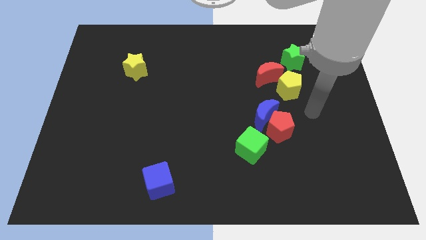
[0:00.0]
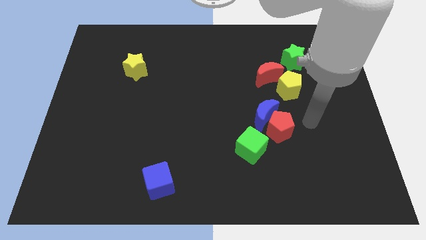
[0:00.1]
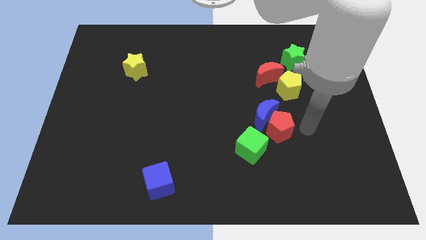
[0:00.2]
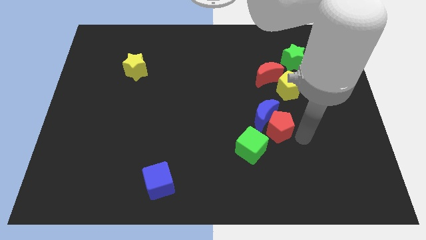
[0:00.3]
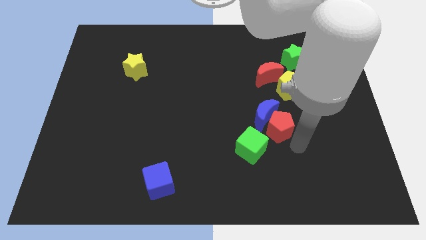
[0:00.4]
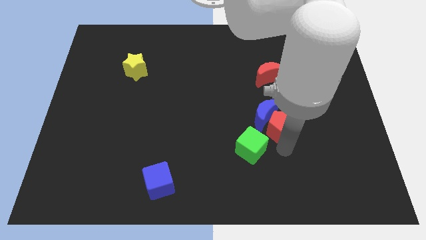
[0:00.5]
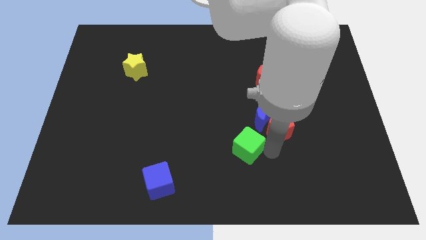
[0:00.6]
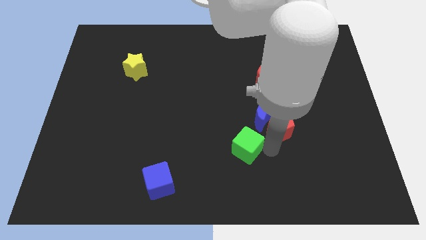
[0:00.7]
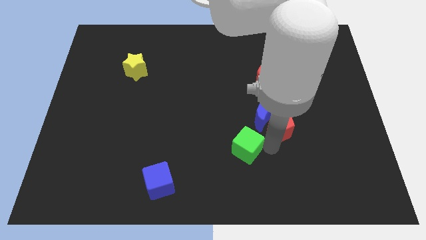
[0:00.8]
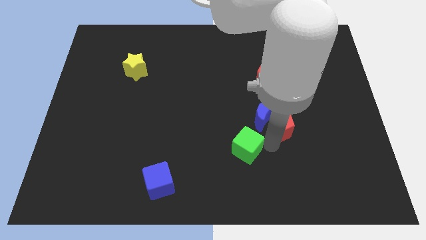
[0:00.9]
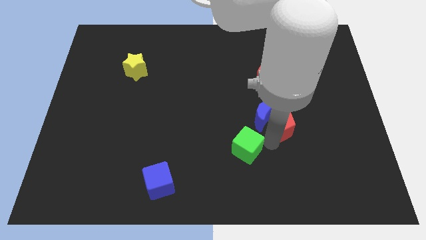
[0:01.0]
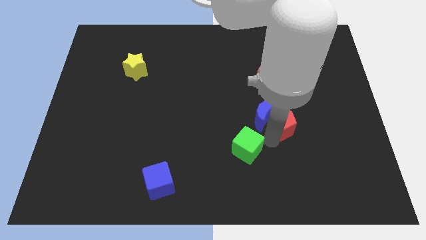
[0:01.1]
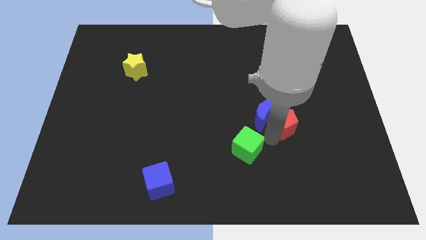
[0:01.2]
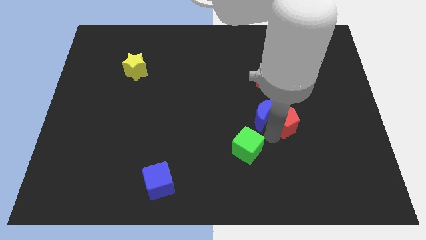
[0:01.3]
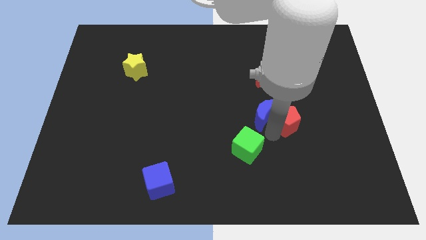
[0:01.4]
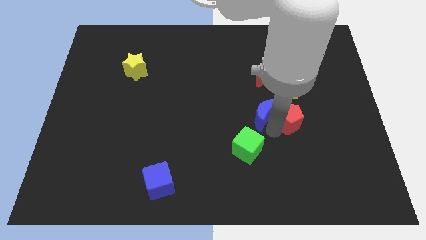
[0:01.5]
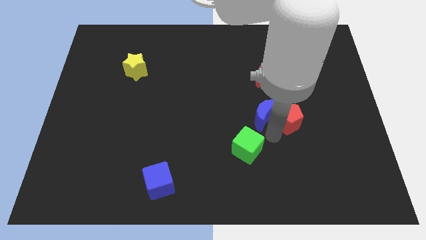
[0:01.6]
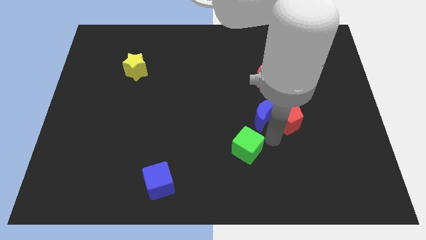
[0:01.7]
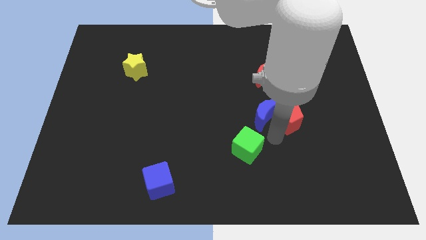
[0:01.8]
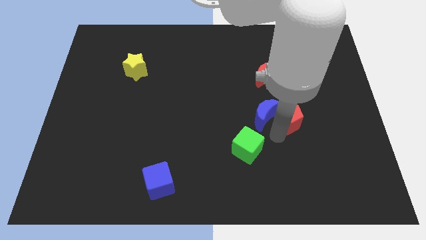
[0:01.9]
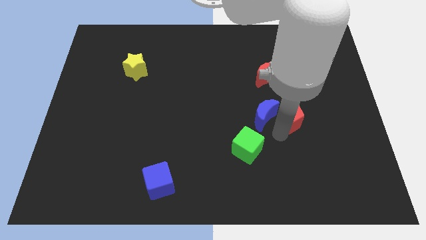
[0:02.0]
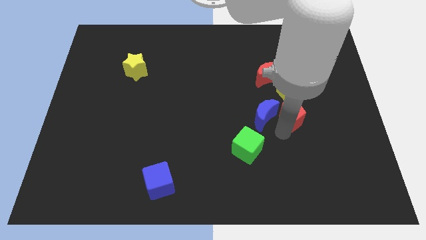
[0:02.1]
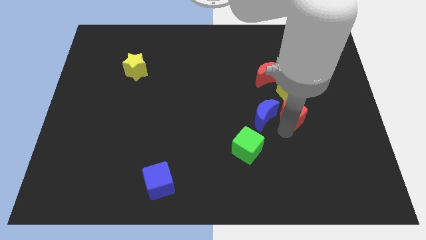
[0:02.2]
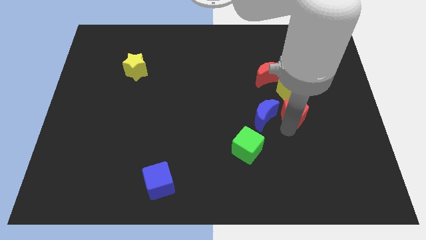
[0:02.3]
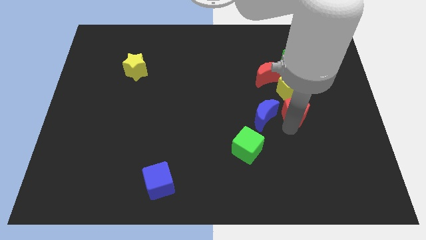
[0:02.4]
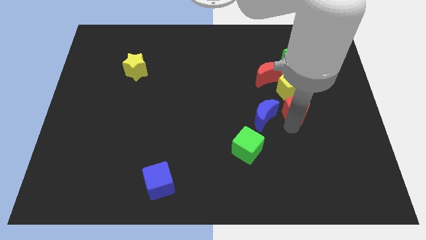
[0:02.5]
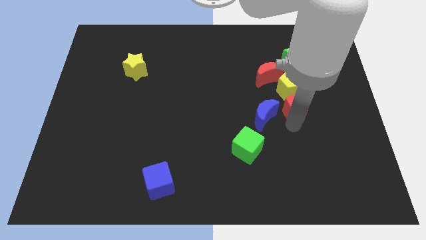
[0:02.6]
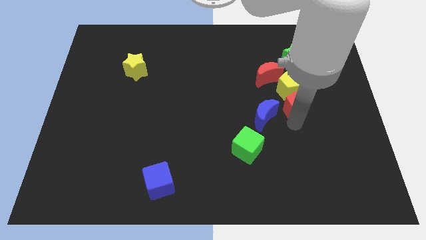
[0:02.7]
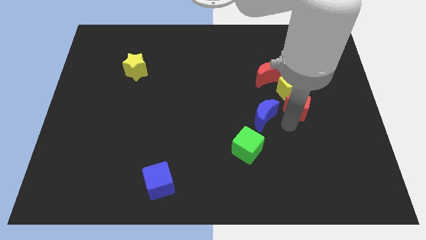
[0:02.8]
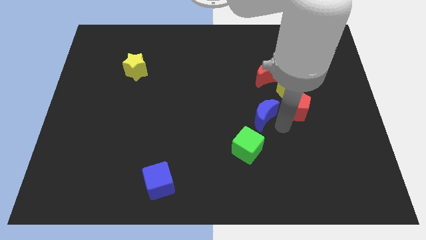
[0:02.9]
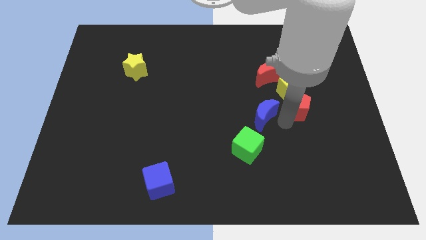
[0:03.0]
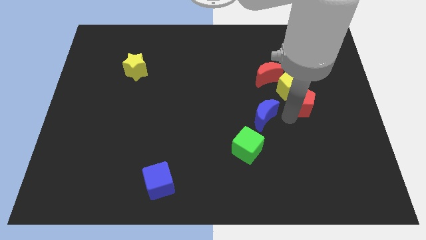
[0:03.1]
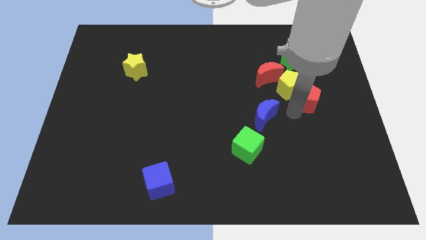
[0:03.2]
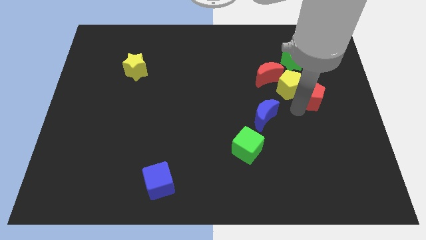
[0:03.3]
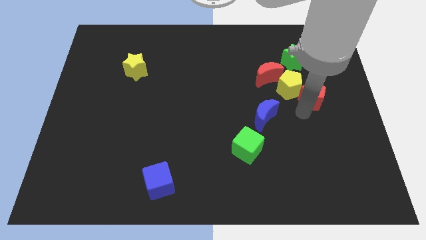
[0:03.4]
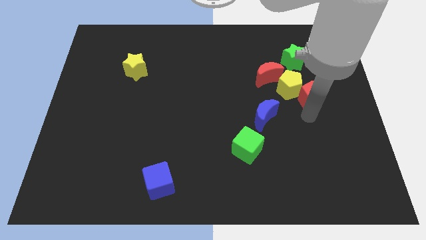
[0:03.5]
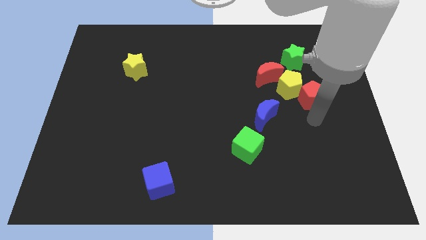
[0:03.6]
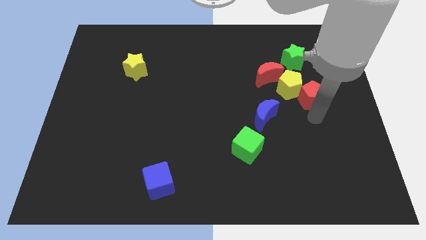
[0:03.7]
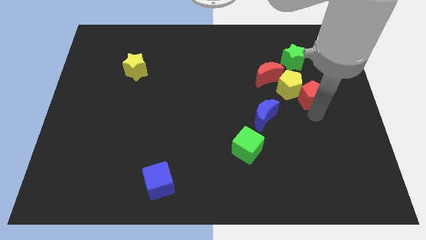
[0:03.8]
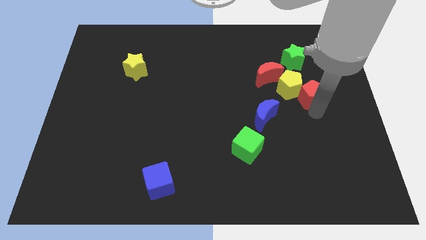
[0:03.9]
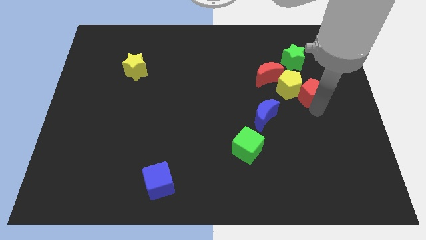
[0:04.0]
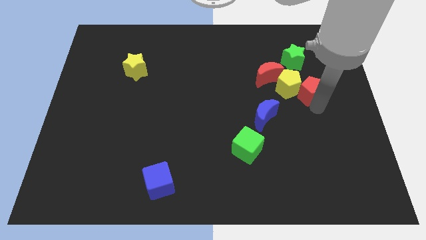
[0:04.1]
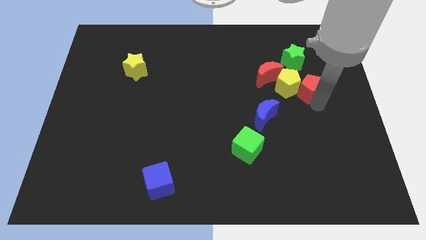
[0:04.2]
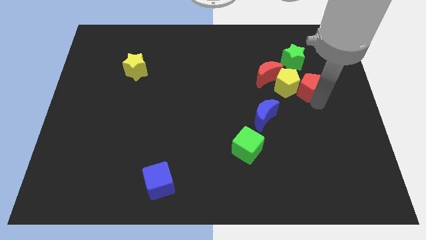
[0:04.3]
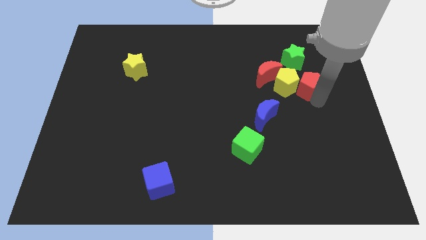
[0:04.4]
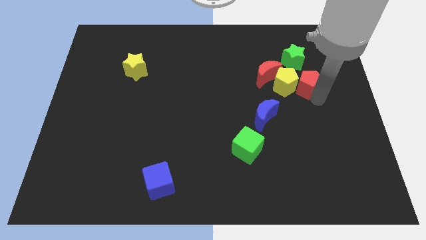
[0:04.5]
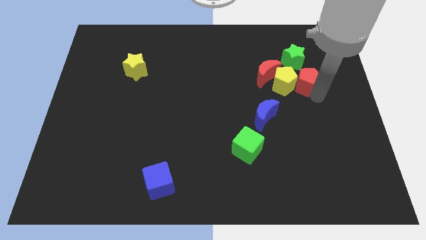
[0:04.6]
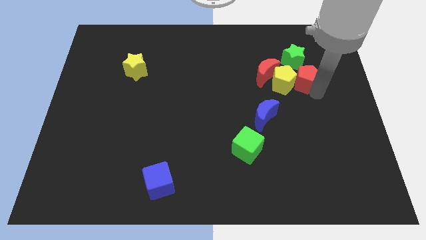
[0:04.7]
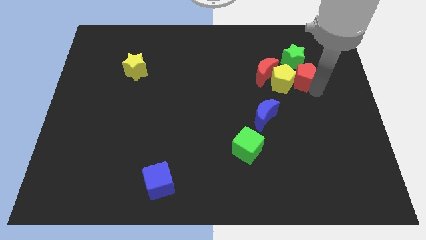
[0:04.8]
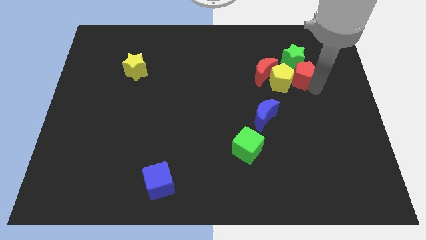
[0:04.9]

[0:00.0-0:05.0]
put the red pentagon towards the green star

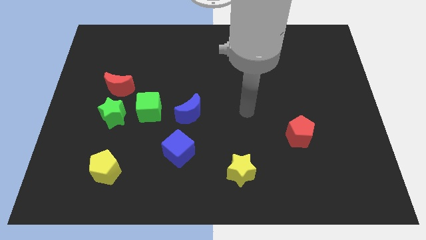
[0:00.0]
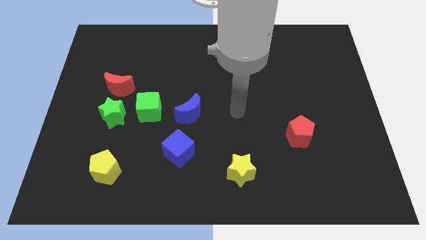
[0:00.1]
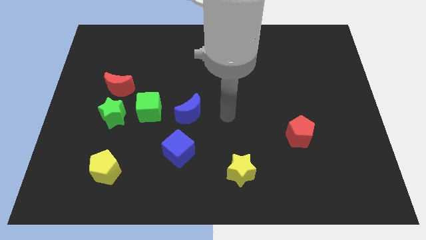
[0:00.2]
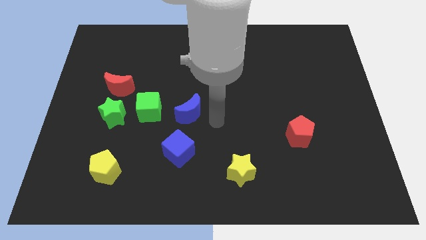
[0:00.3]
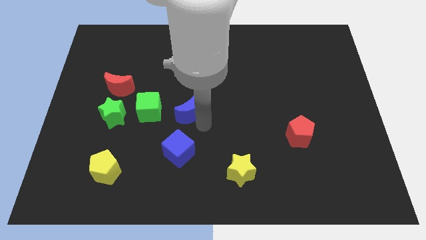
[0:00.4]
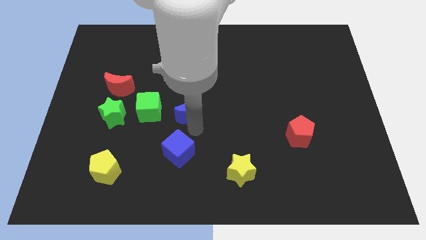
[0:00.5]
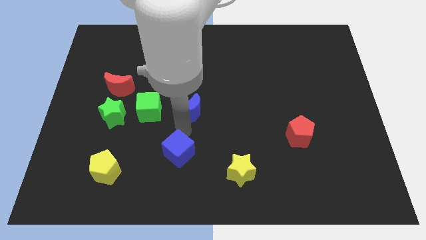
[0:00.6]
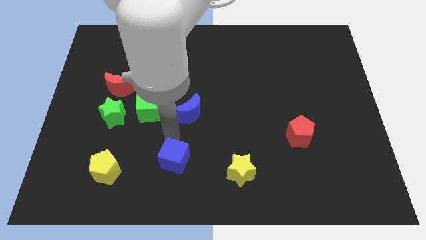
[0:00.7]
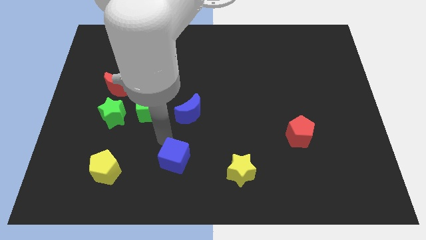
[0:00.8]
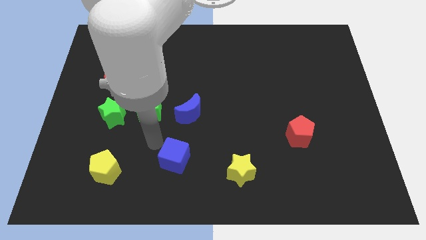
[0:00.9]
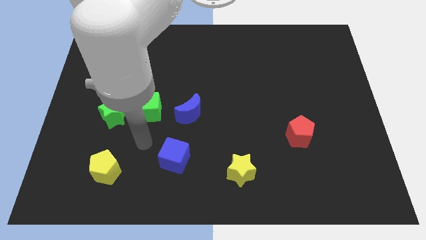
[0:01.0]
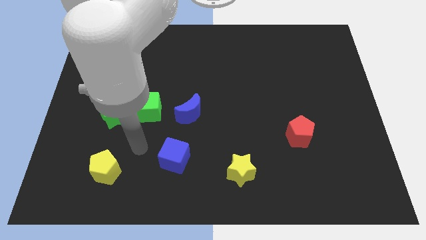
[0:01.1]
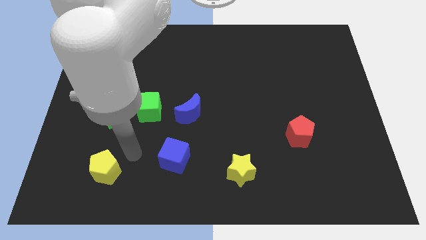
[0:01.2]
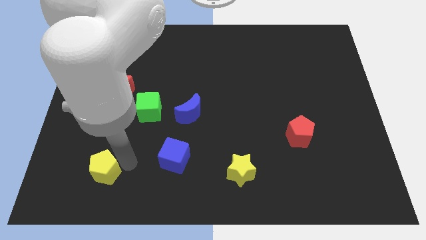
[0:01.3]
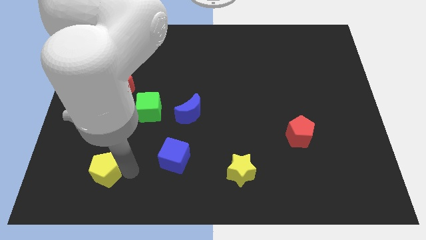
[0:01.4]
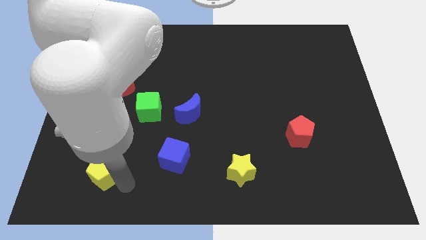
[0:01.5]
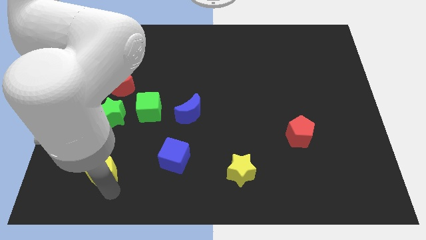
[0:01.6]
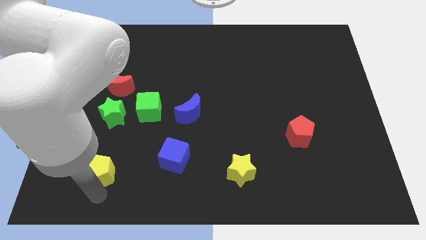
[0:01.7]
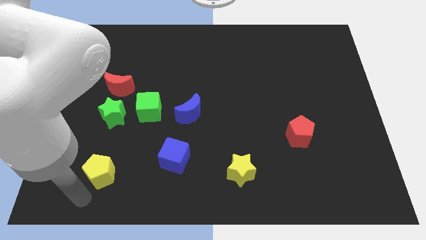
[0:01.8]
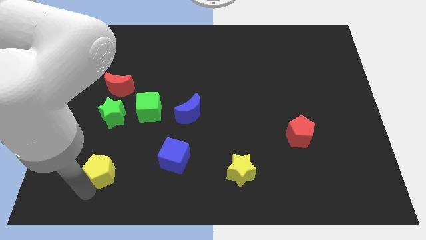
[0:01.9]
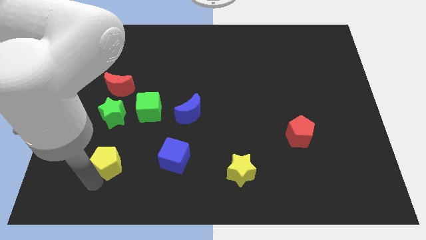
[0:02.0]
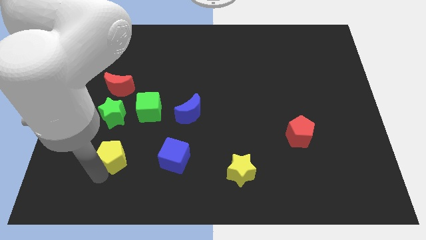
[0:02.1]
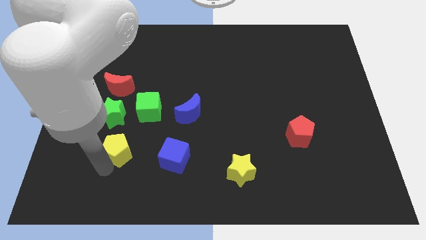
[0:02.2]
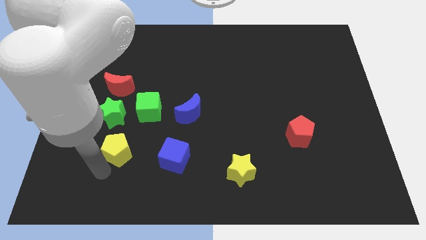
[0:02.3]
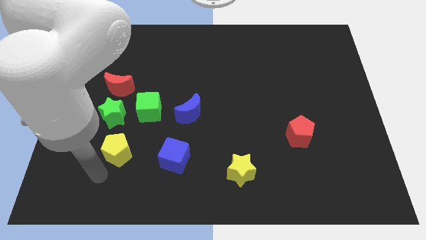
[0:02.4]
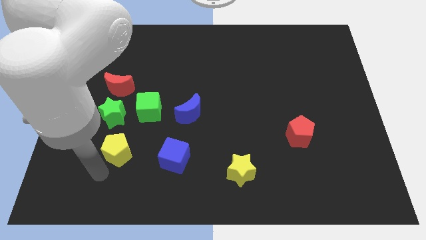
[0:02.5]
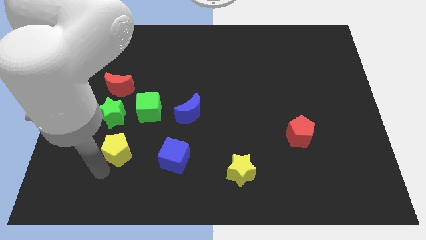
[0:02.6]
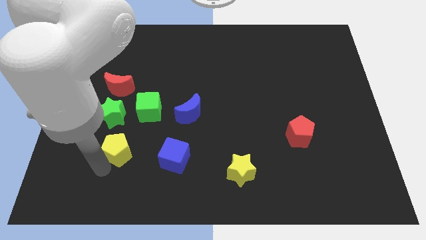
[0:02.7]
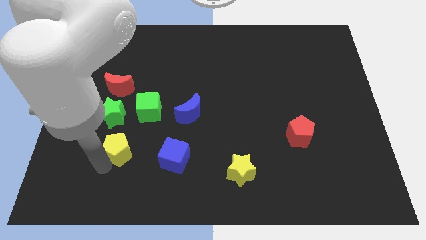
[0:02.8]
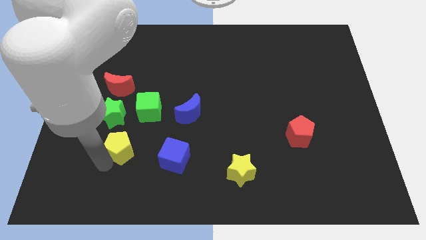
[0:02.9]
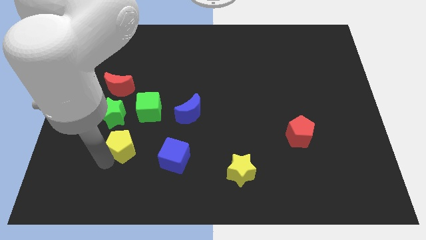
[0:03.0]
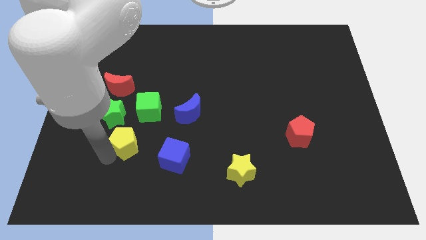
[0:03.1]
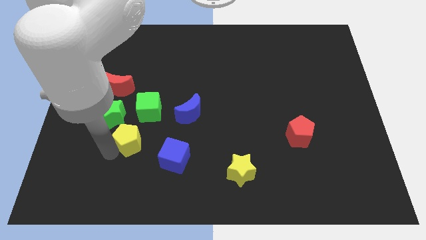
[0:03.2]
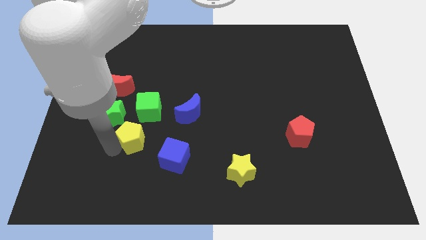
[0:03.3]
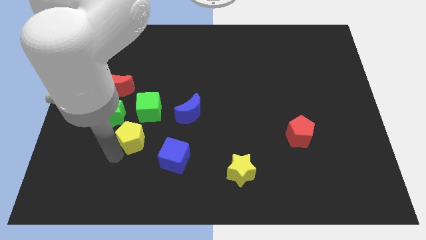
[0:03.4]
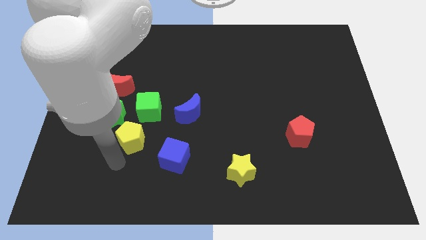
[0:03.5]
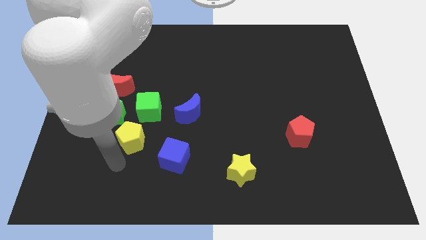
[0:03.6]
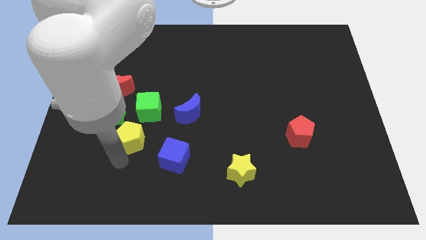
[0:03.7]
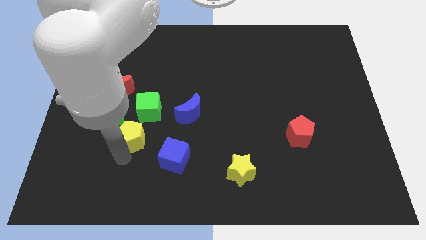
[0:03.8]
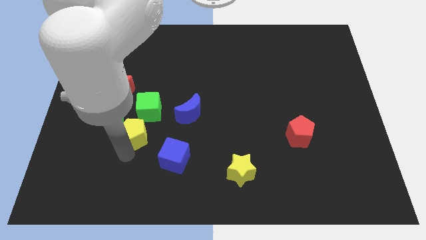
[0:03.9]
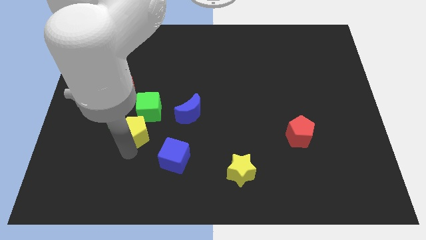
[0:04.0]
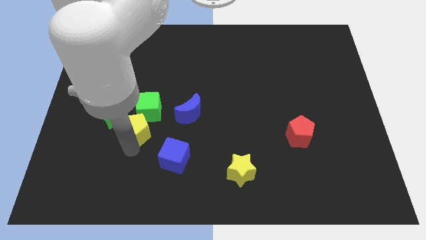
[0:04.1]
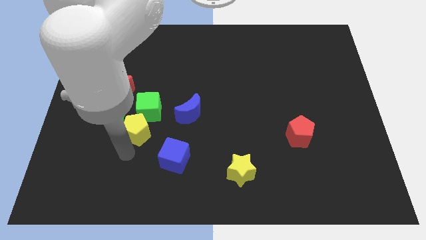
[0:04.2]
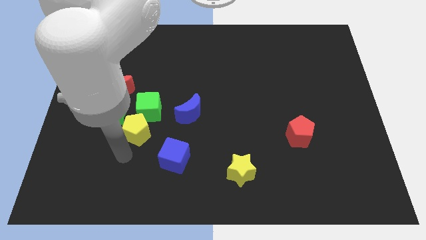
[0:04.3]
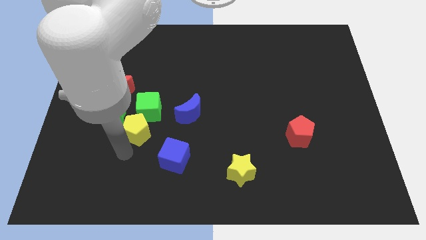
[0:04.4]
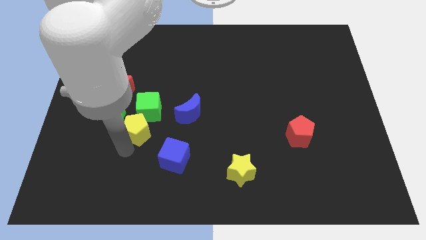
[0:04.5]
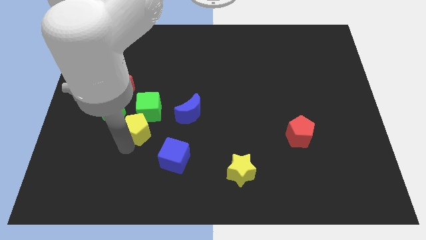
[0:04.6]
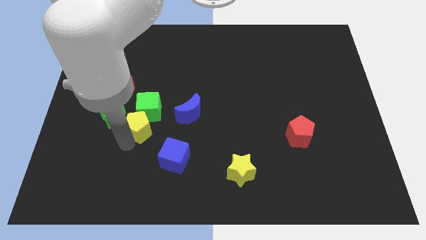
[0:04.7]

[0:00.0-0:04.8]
push the yellow pentagon next to the green cube
